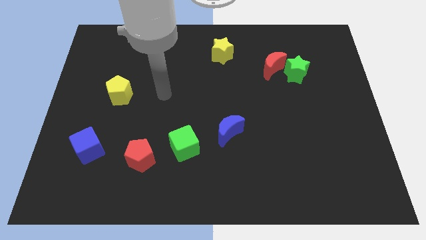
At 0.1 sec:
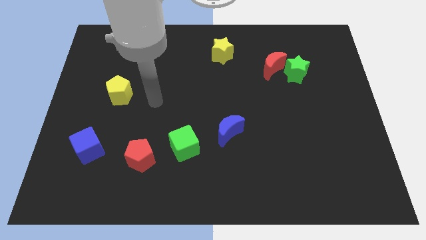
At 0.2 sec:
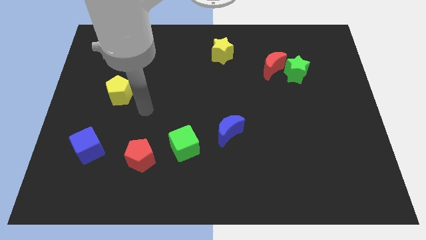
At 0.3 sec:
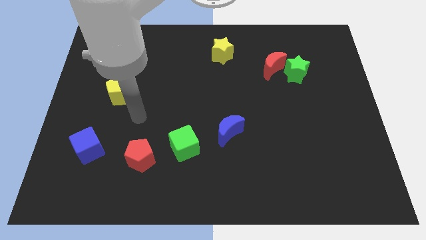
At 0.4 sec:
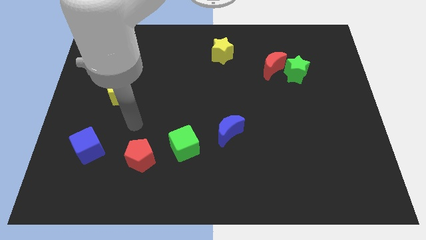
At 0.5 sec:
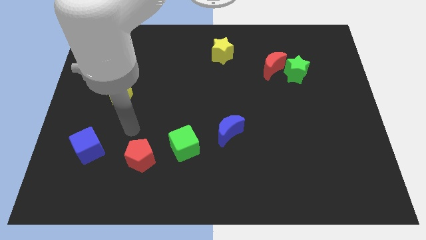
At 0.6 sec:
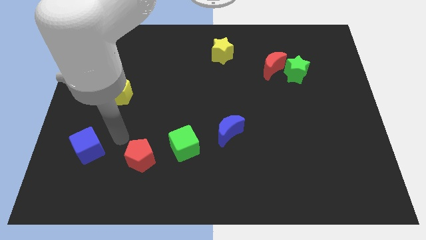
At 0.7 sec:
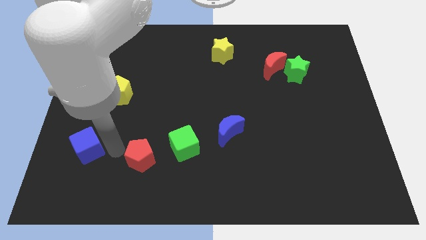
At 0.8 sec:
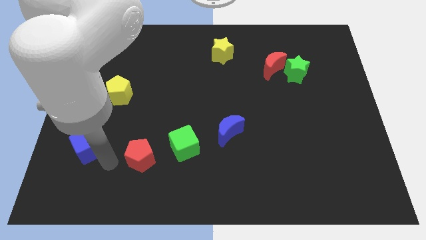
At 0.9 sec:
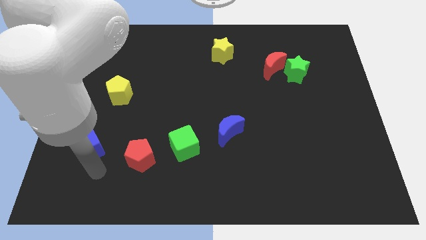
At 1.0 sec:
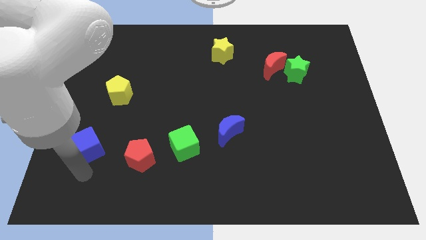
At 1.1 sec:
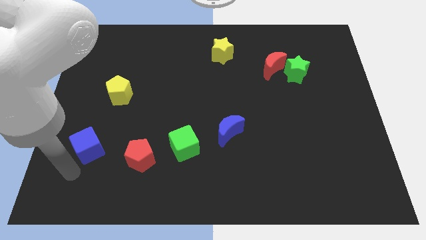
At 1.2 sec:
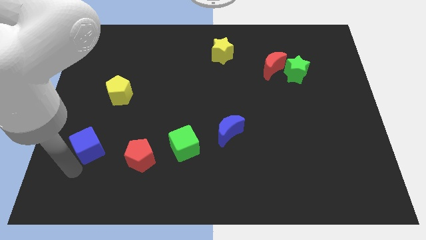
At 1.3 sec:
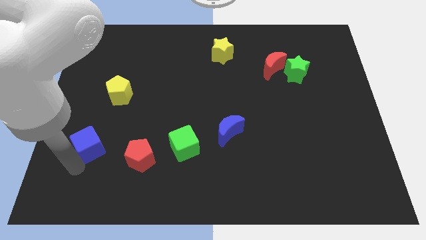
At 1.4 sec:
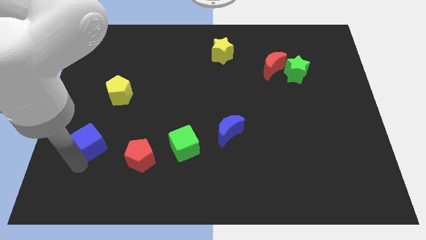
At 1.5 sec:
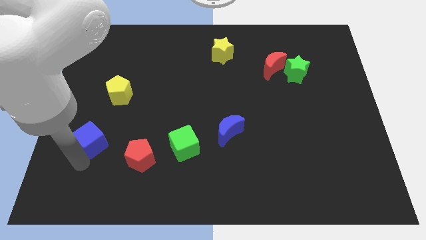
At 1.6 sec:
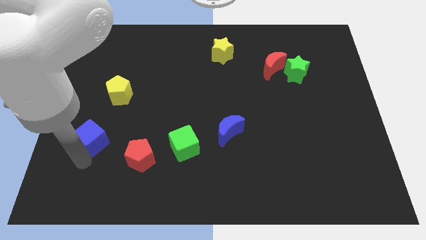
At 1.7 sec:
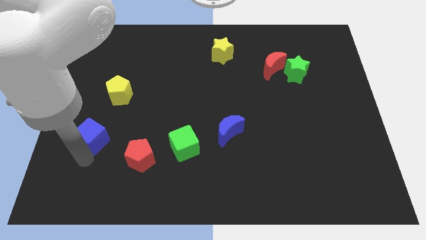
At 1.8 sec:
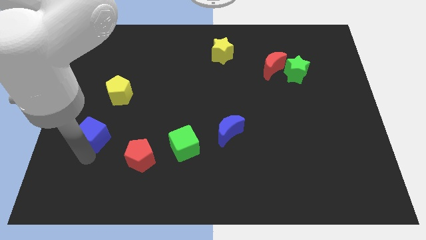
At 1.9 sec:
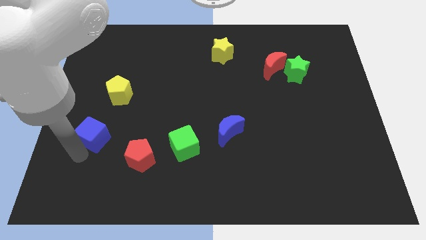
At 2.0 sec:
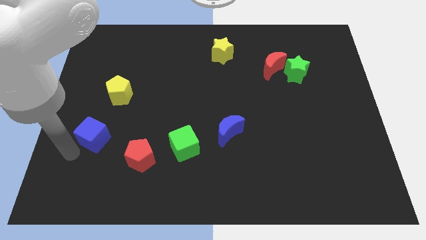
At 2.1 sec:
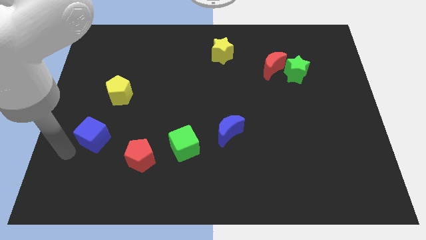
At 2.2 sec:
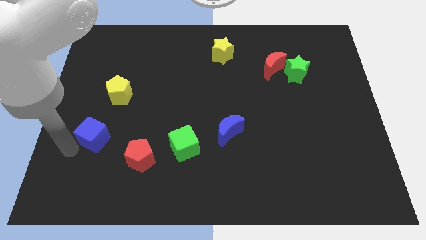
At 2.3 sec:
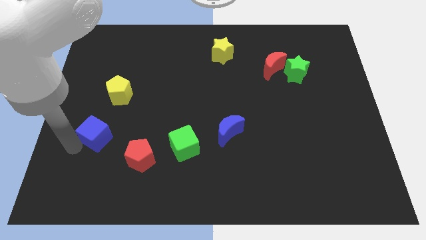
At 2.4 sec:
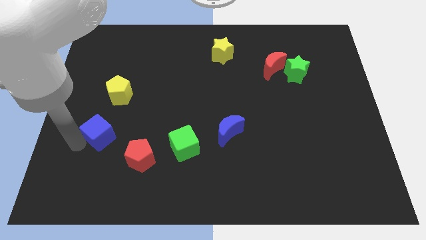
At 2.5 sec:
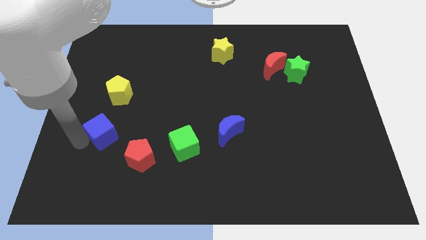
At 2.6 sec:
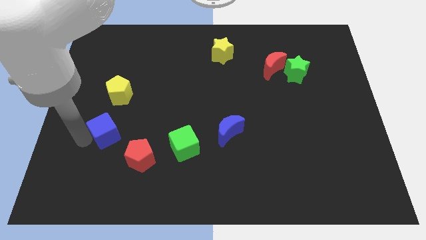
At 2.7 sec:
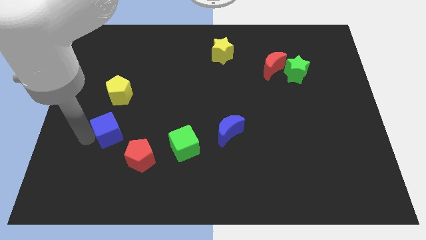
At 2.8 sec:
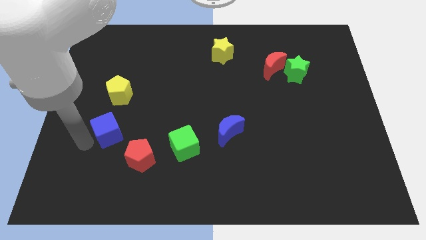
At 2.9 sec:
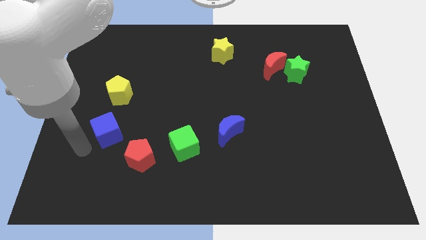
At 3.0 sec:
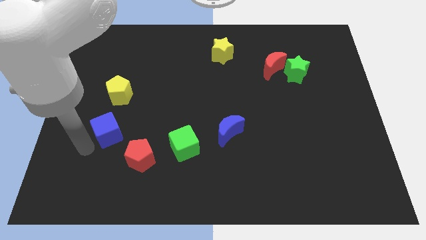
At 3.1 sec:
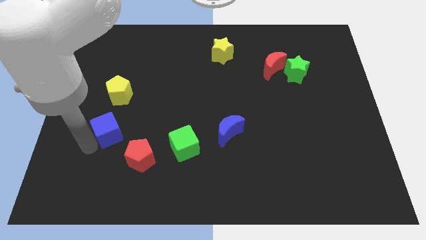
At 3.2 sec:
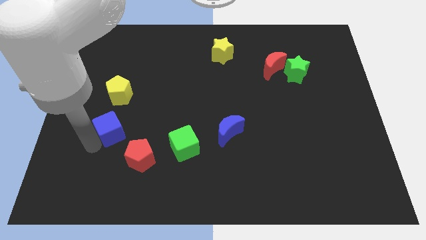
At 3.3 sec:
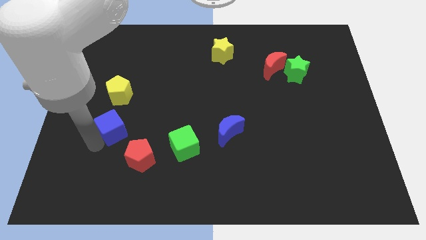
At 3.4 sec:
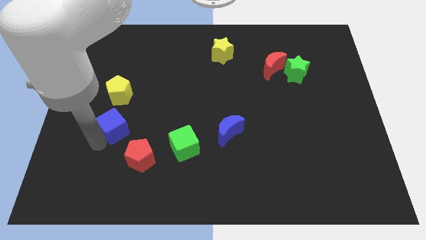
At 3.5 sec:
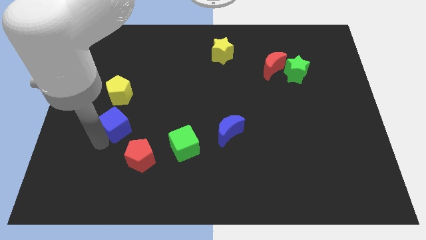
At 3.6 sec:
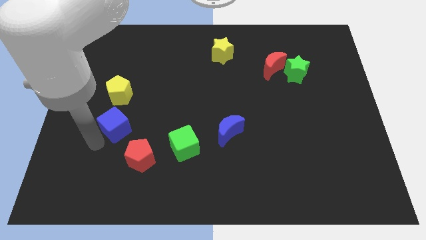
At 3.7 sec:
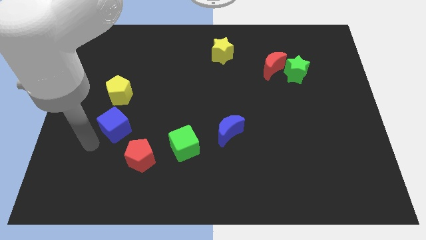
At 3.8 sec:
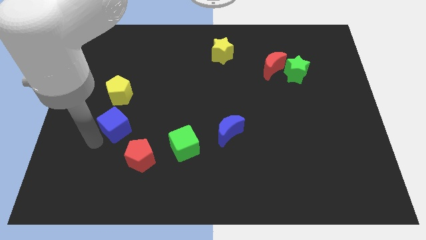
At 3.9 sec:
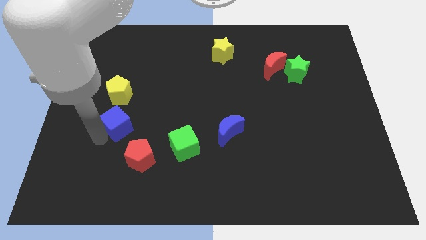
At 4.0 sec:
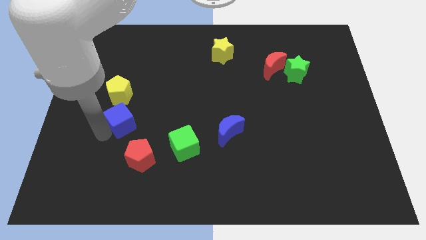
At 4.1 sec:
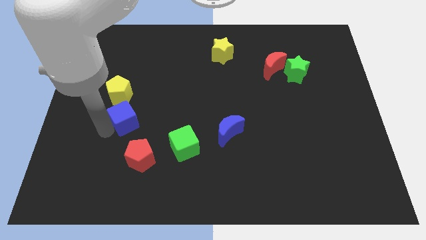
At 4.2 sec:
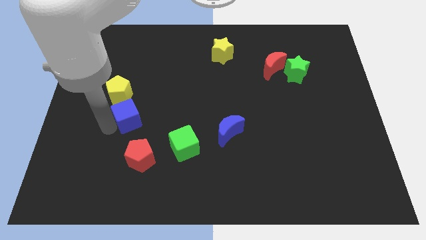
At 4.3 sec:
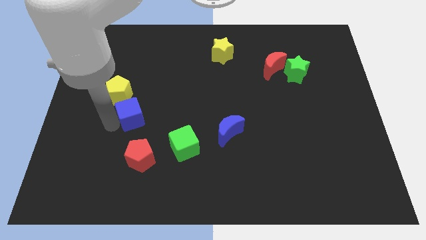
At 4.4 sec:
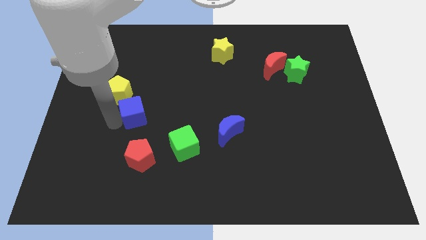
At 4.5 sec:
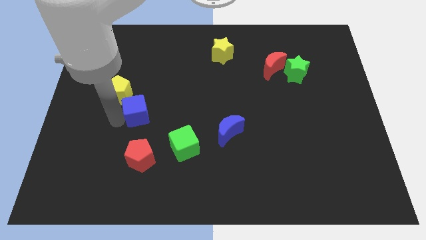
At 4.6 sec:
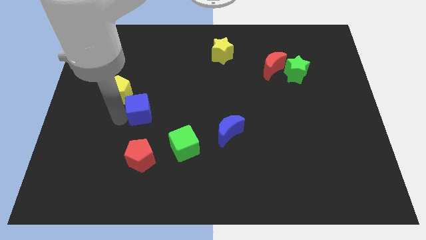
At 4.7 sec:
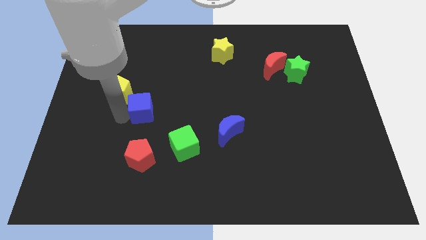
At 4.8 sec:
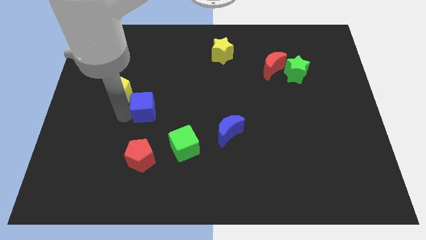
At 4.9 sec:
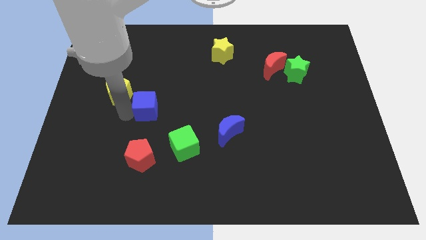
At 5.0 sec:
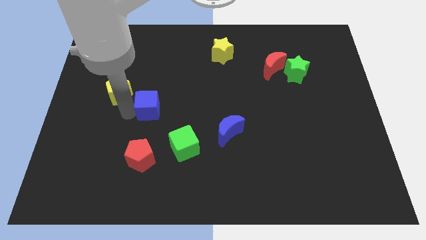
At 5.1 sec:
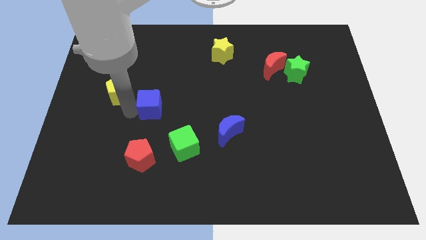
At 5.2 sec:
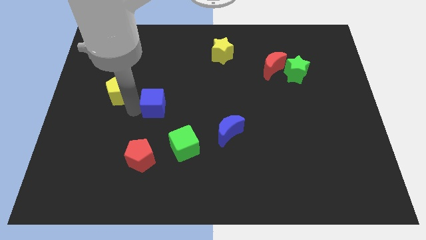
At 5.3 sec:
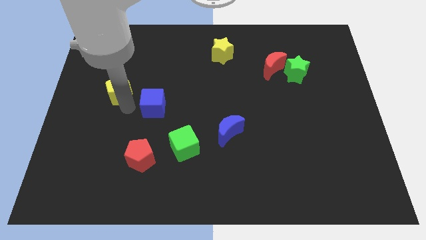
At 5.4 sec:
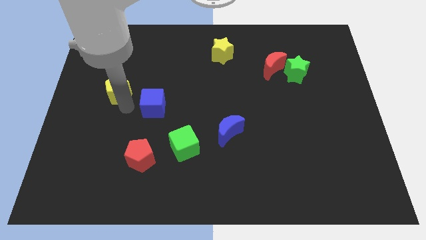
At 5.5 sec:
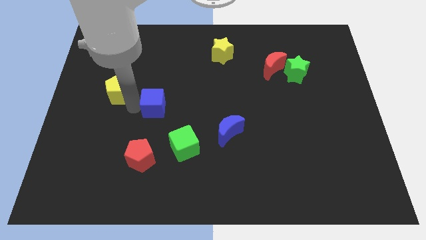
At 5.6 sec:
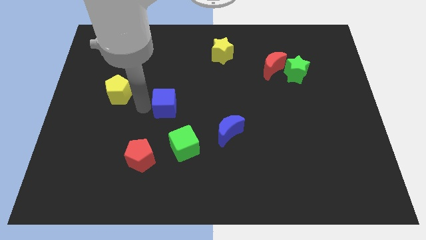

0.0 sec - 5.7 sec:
slide the blue cube to the center of the board
